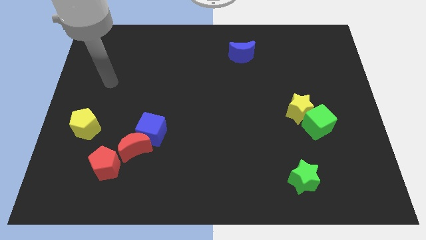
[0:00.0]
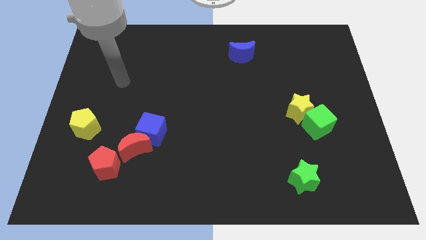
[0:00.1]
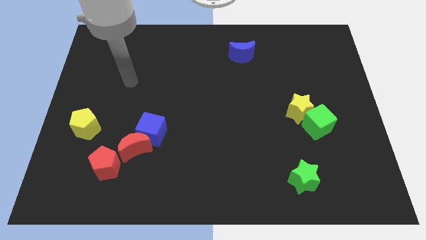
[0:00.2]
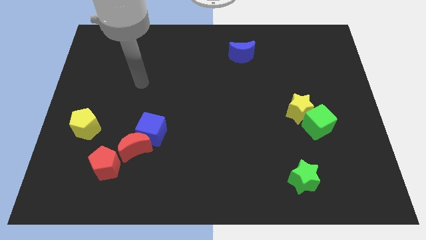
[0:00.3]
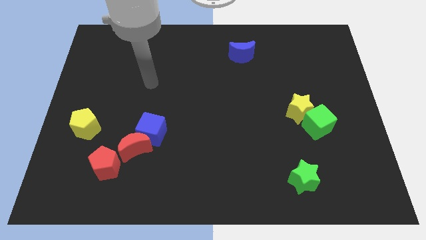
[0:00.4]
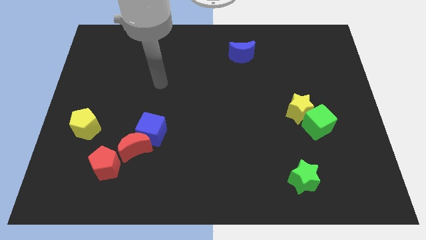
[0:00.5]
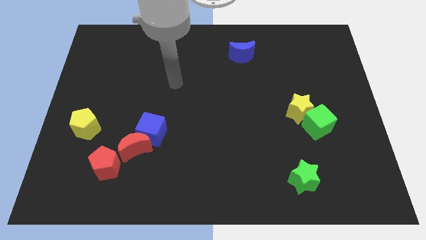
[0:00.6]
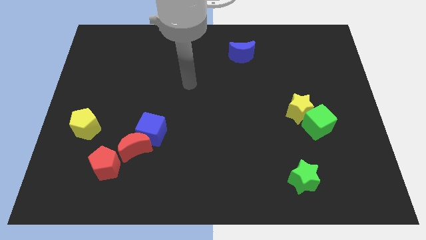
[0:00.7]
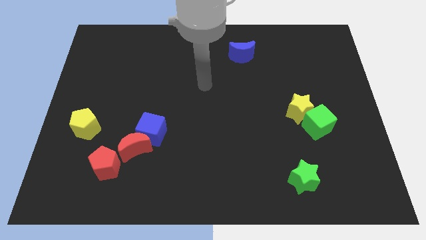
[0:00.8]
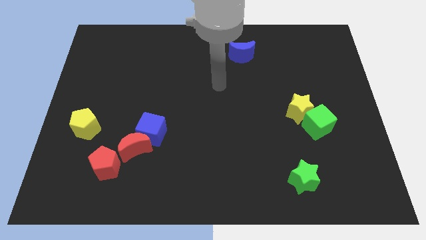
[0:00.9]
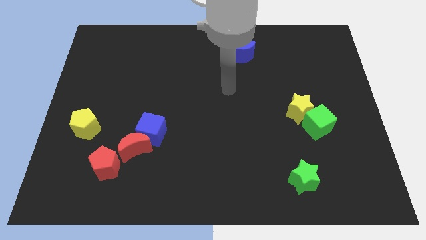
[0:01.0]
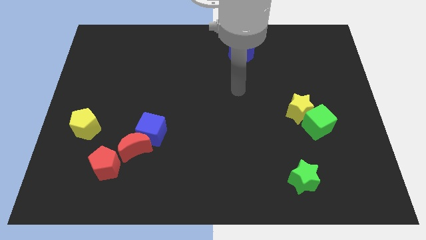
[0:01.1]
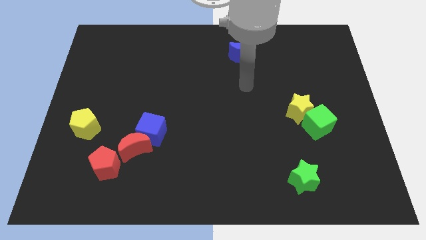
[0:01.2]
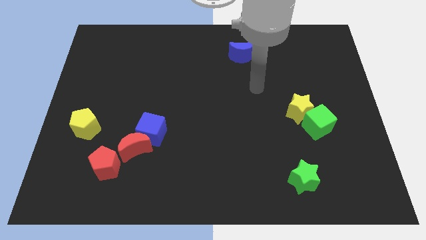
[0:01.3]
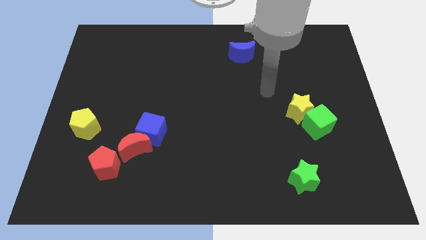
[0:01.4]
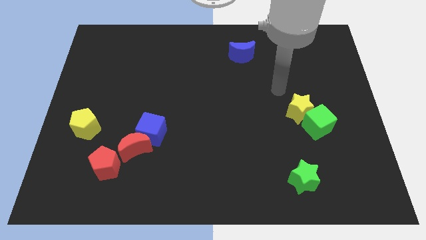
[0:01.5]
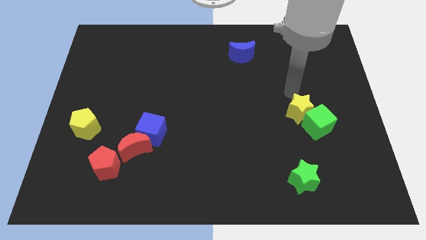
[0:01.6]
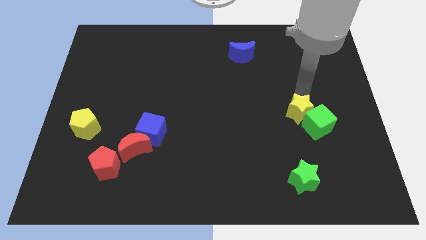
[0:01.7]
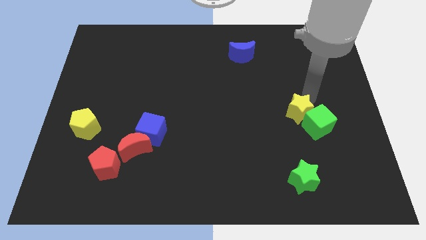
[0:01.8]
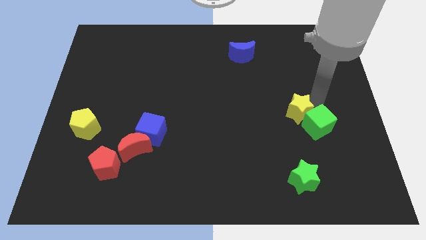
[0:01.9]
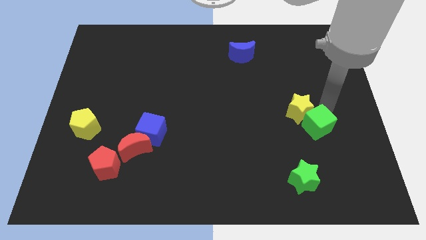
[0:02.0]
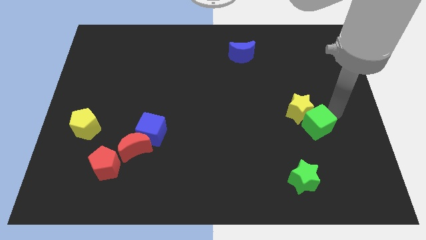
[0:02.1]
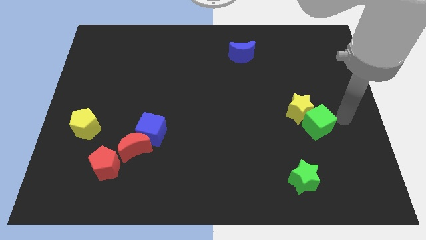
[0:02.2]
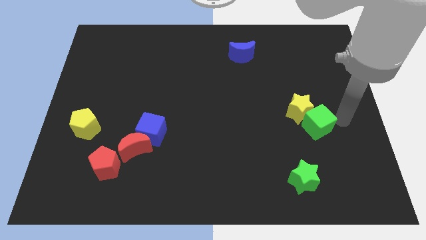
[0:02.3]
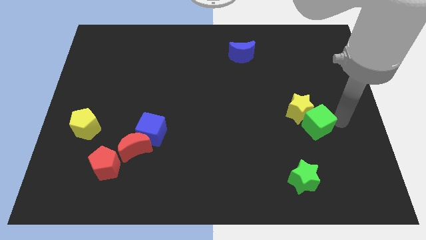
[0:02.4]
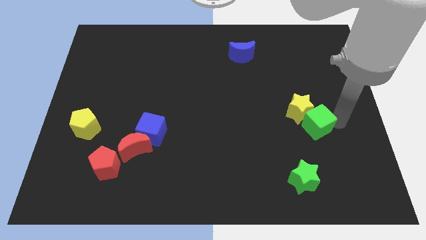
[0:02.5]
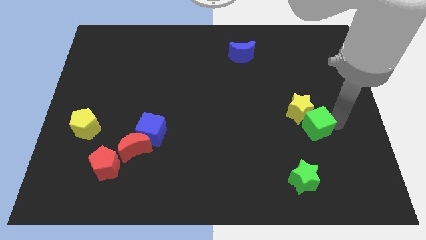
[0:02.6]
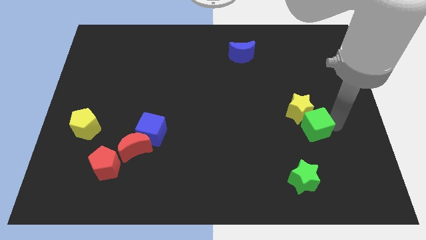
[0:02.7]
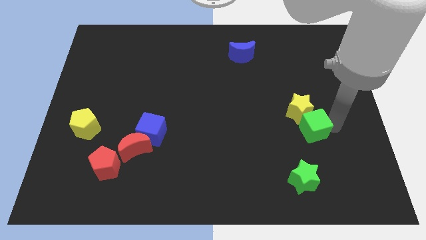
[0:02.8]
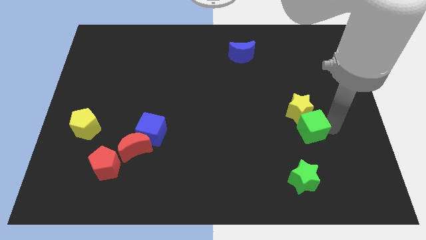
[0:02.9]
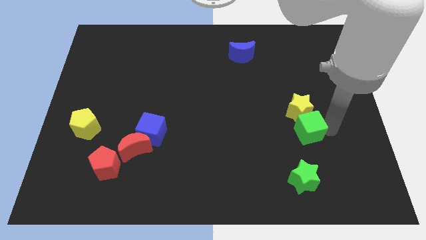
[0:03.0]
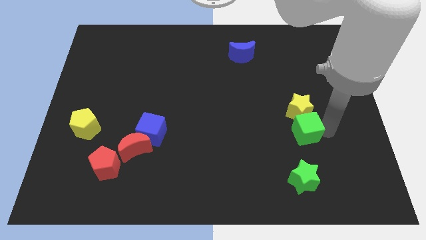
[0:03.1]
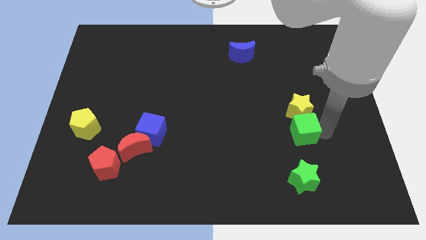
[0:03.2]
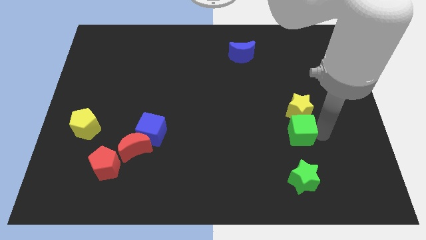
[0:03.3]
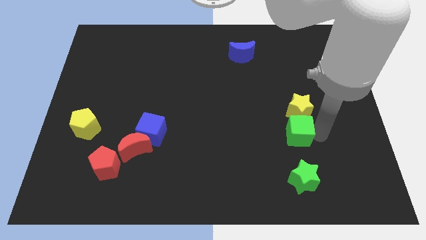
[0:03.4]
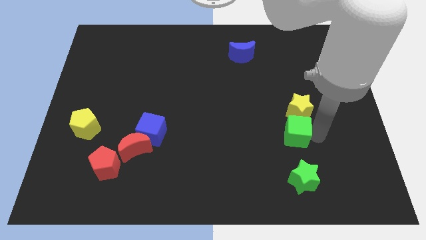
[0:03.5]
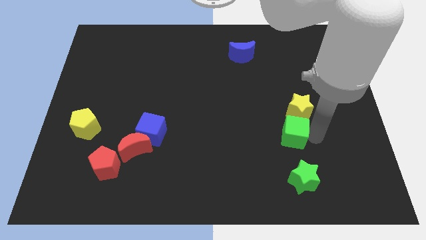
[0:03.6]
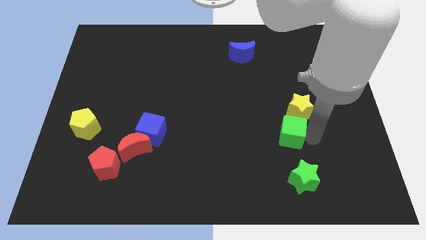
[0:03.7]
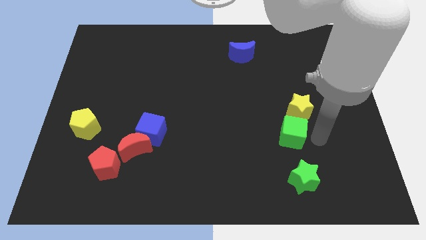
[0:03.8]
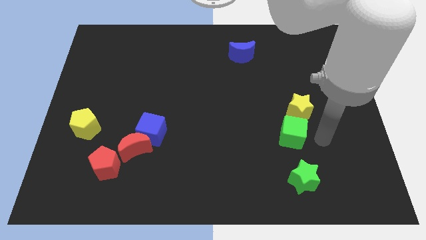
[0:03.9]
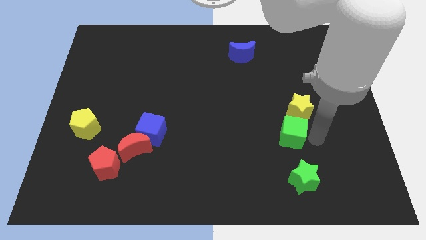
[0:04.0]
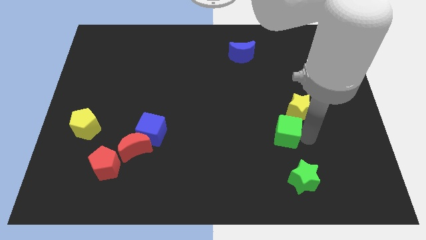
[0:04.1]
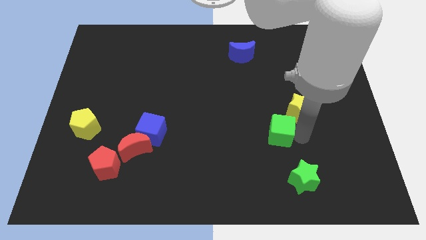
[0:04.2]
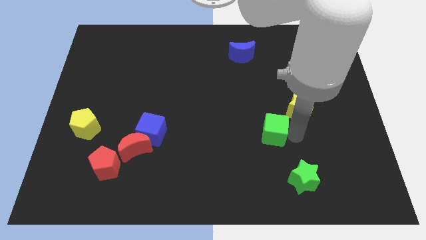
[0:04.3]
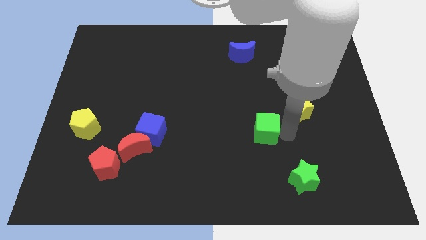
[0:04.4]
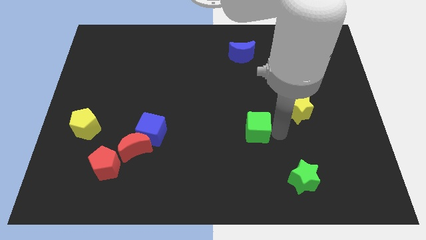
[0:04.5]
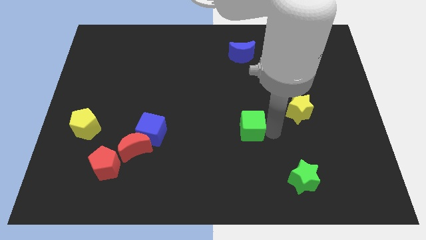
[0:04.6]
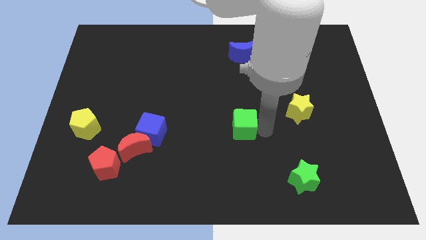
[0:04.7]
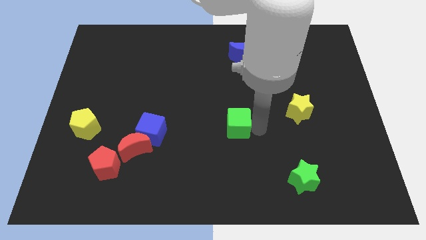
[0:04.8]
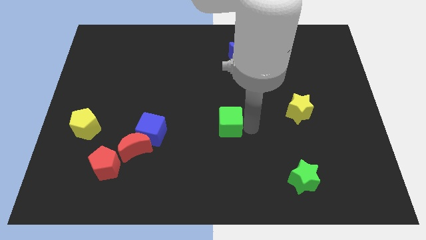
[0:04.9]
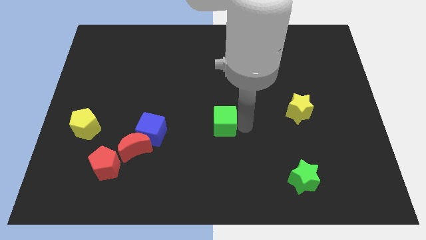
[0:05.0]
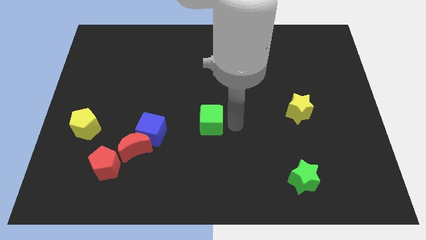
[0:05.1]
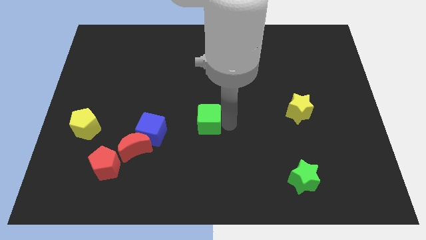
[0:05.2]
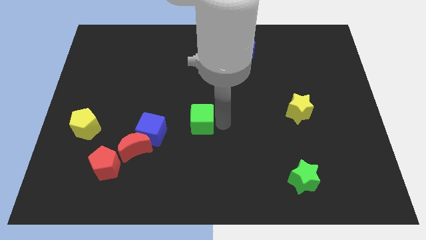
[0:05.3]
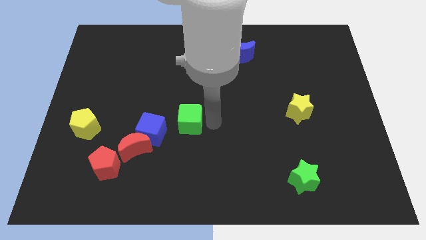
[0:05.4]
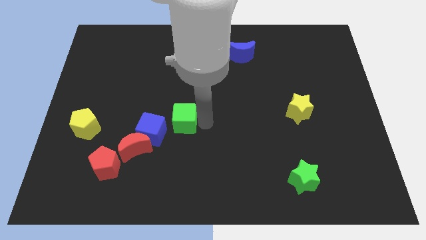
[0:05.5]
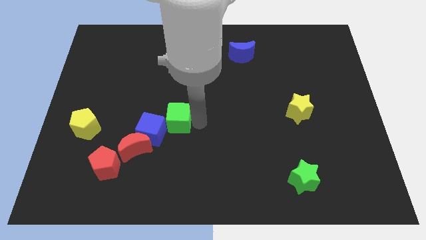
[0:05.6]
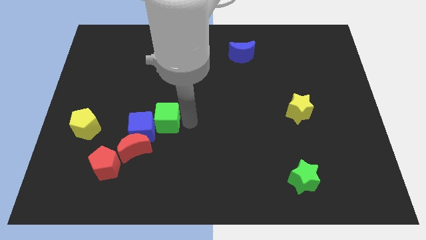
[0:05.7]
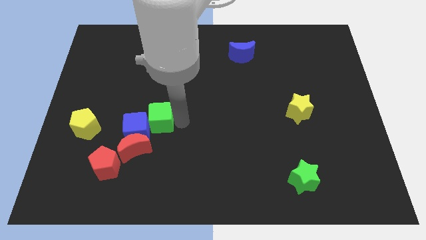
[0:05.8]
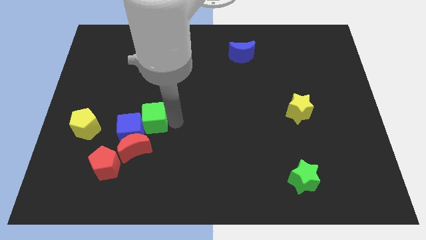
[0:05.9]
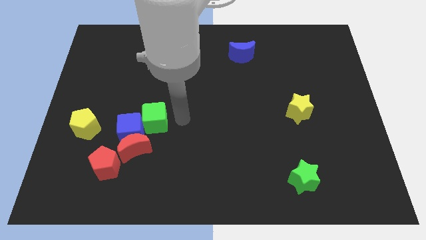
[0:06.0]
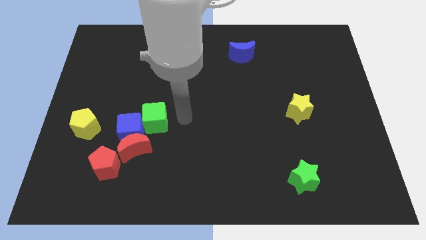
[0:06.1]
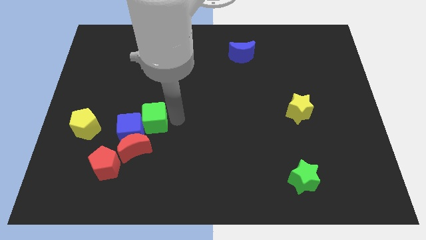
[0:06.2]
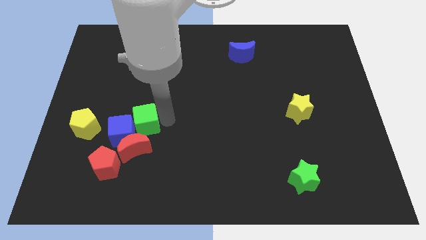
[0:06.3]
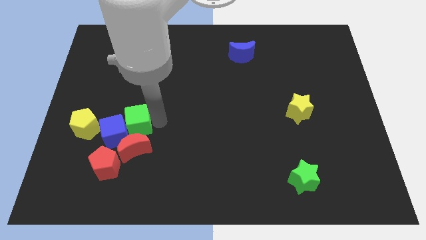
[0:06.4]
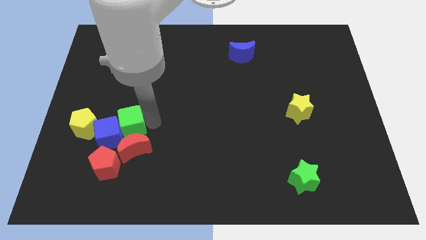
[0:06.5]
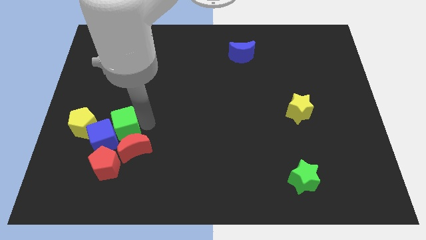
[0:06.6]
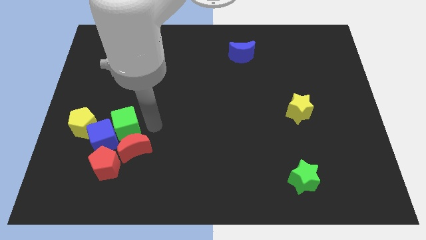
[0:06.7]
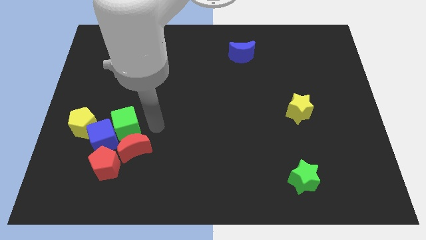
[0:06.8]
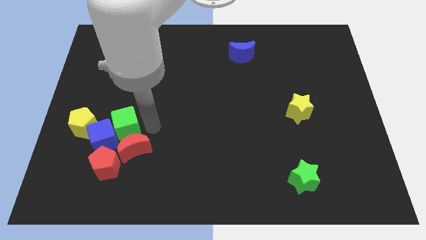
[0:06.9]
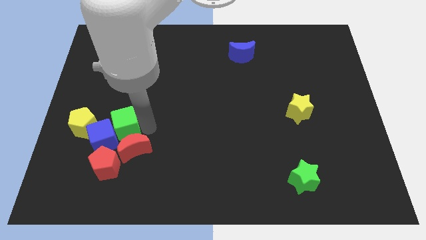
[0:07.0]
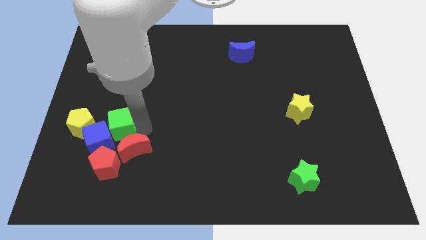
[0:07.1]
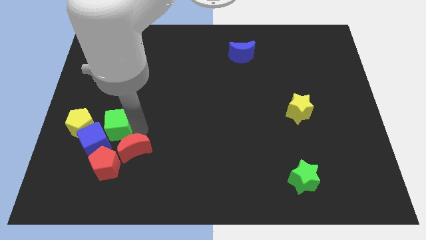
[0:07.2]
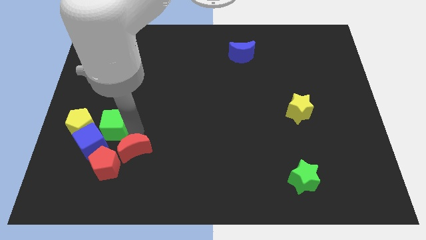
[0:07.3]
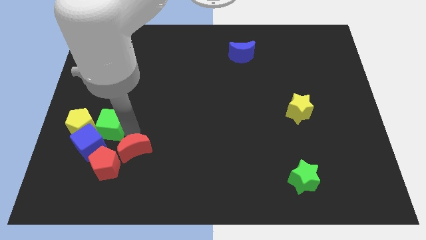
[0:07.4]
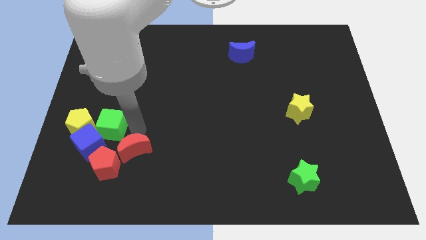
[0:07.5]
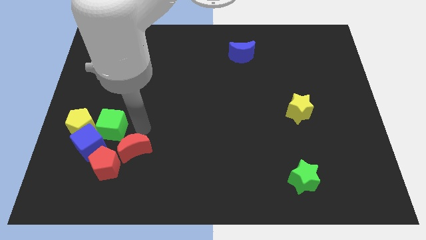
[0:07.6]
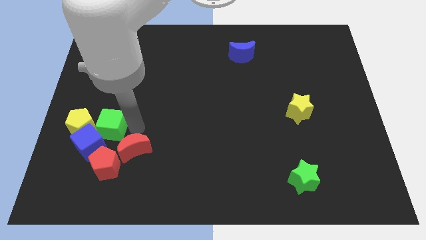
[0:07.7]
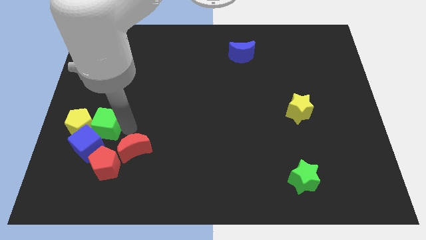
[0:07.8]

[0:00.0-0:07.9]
put the green cube towards the yellow pentagon
